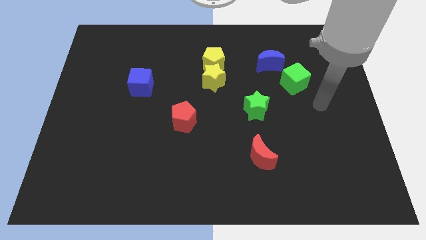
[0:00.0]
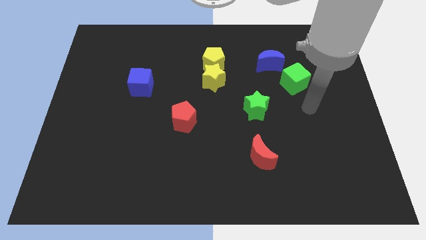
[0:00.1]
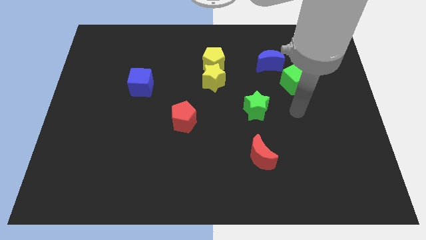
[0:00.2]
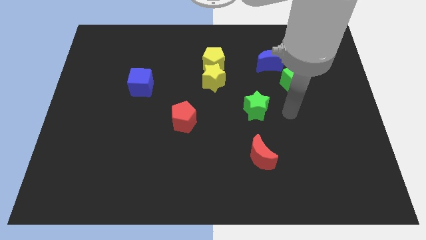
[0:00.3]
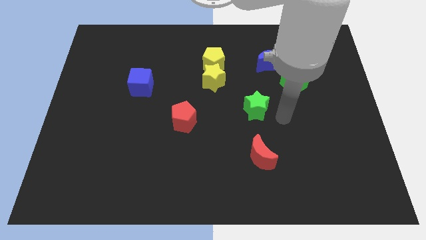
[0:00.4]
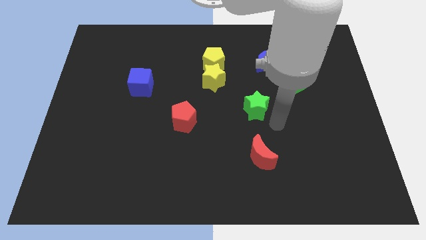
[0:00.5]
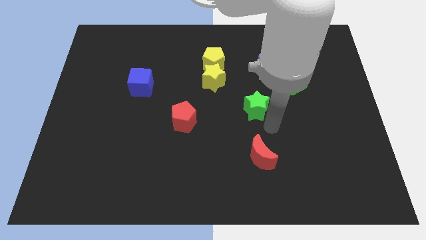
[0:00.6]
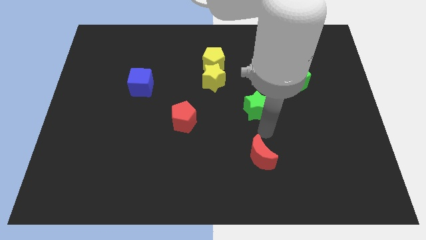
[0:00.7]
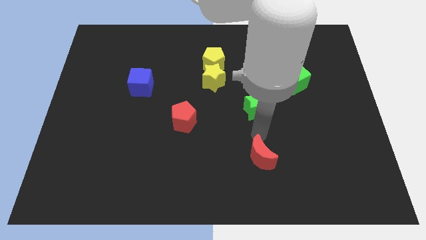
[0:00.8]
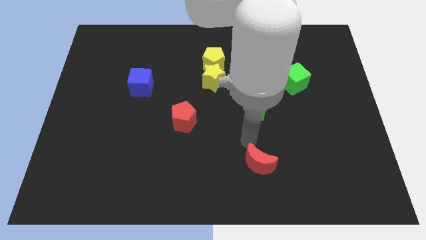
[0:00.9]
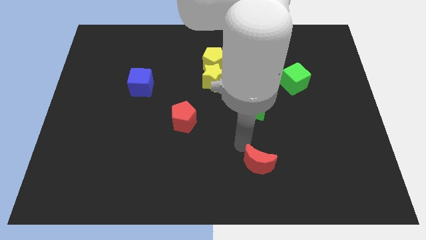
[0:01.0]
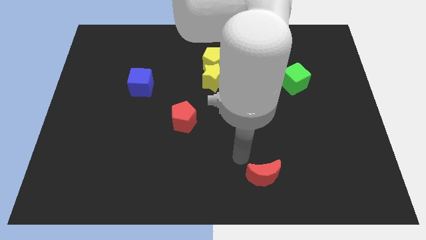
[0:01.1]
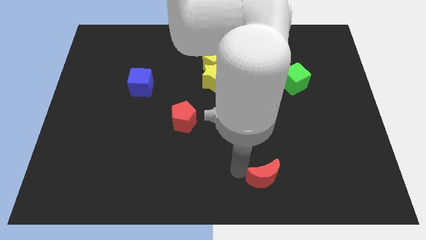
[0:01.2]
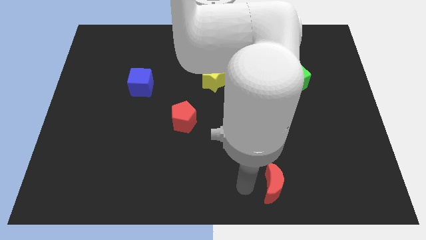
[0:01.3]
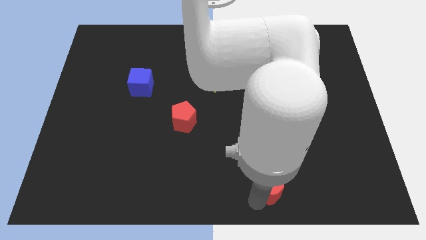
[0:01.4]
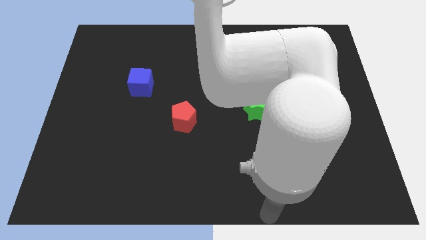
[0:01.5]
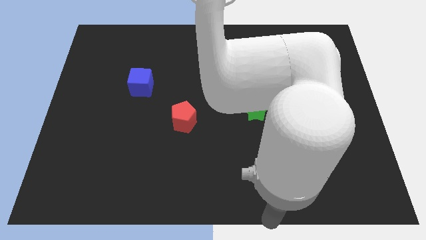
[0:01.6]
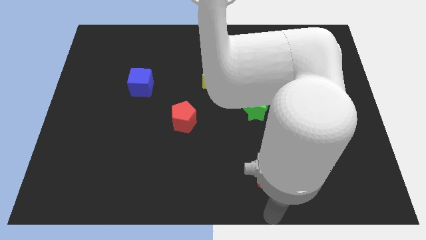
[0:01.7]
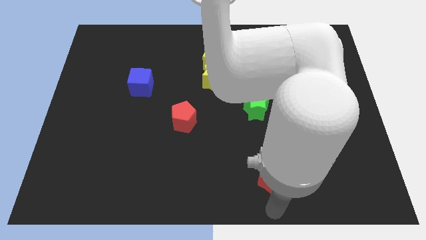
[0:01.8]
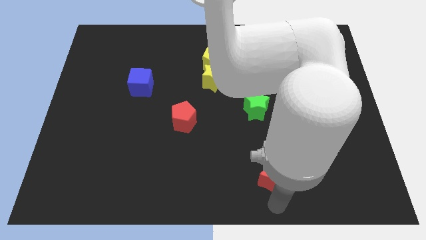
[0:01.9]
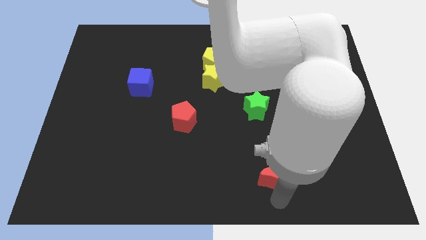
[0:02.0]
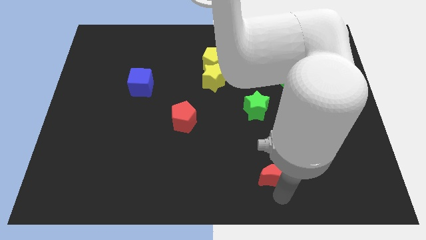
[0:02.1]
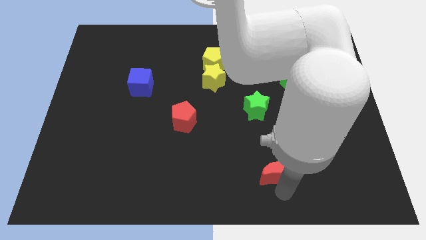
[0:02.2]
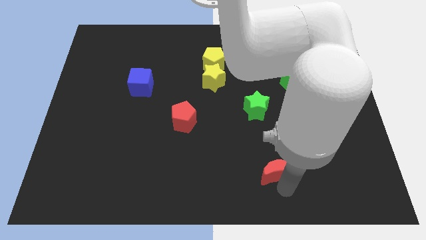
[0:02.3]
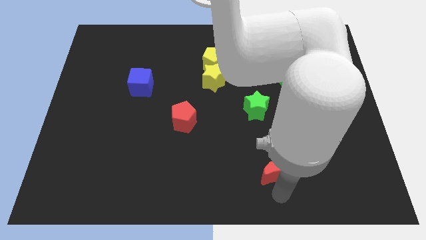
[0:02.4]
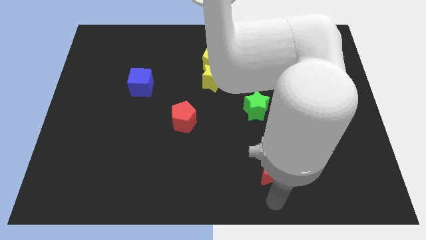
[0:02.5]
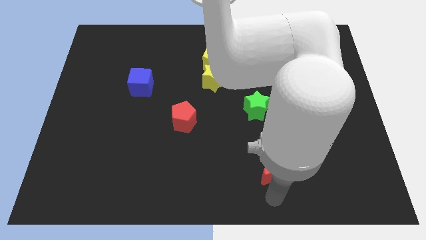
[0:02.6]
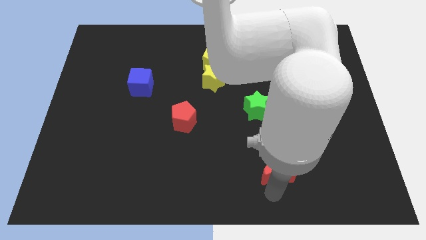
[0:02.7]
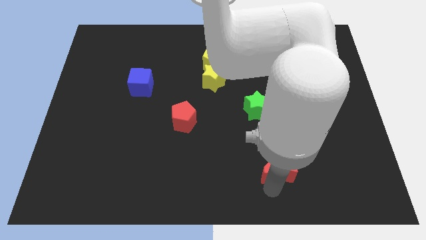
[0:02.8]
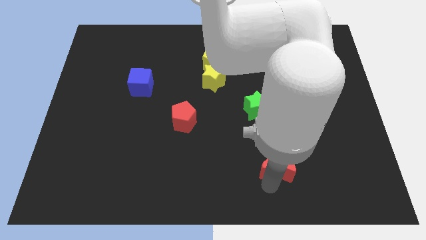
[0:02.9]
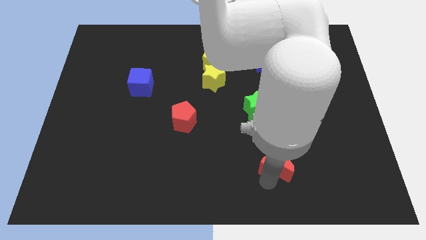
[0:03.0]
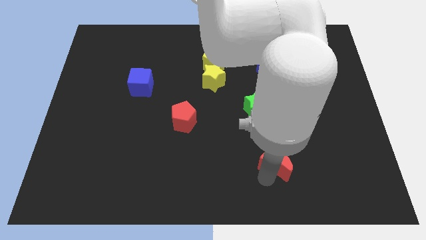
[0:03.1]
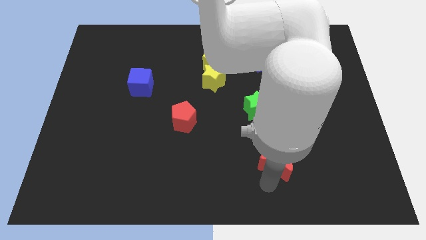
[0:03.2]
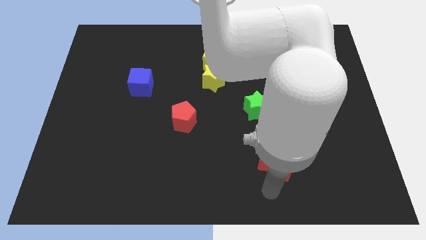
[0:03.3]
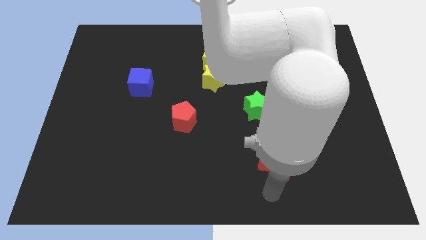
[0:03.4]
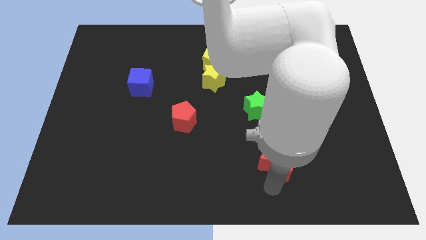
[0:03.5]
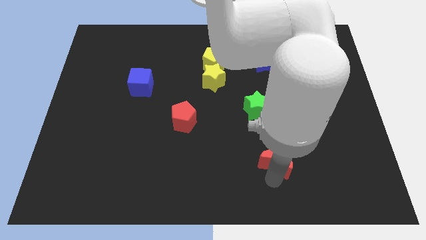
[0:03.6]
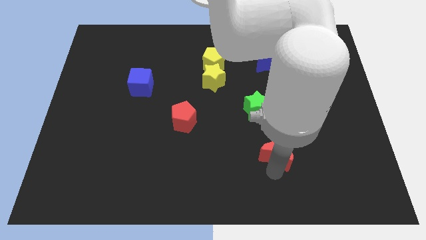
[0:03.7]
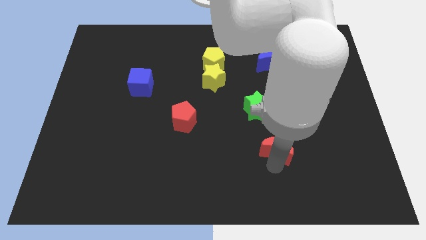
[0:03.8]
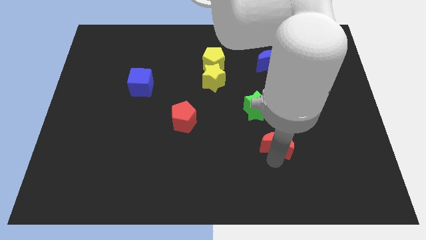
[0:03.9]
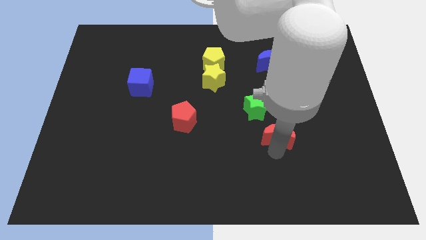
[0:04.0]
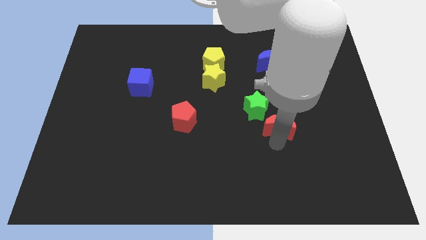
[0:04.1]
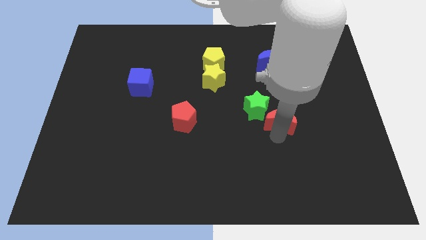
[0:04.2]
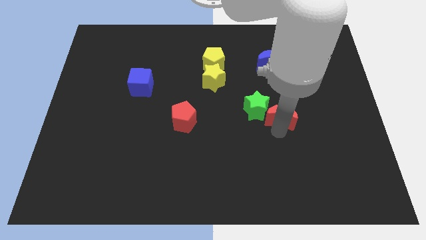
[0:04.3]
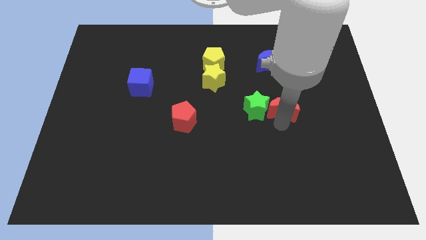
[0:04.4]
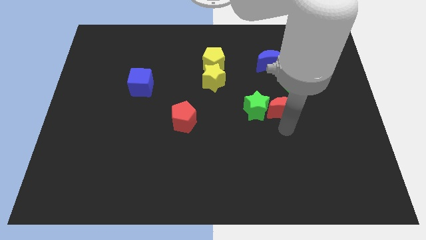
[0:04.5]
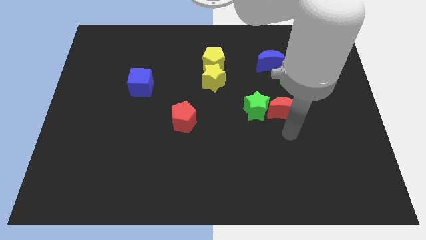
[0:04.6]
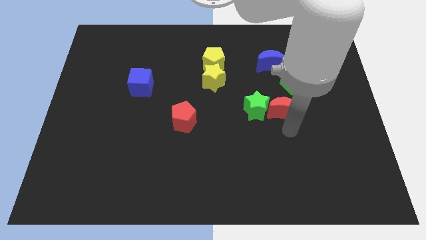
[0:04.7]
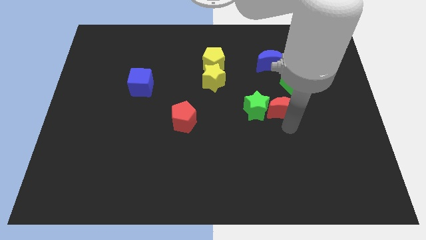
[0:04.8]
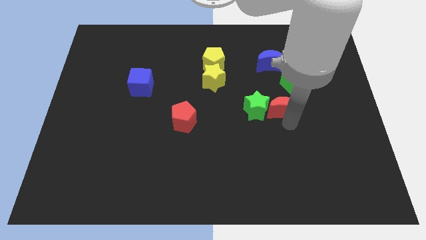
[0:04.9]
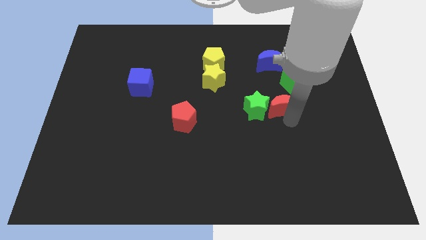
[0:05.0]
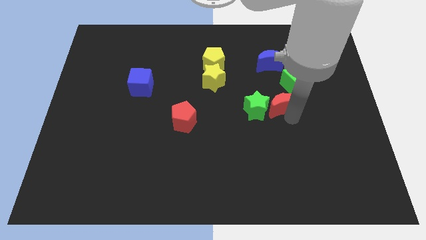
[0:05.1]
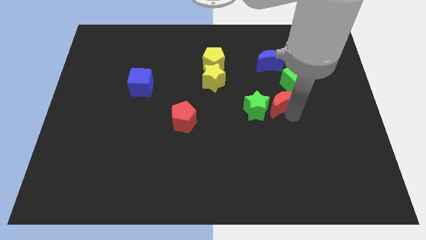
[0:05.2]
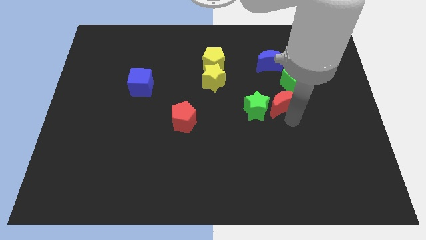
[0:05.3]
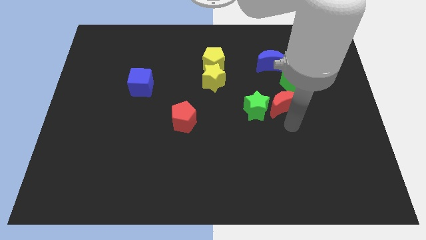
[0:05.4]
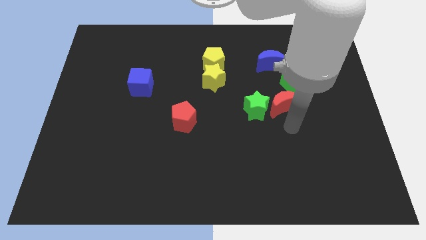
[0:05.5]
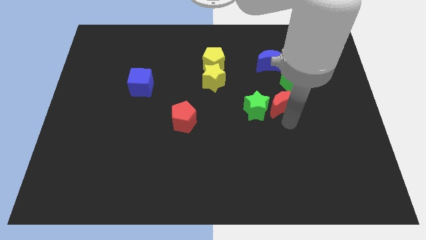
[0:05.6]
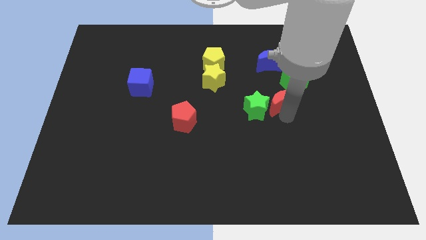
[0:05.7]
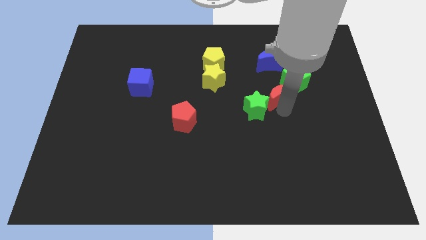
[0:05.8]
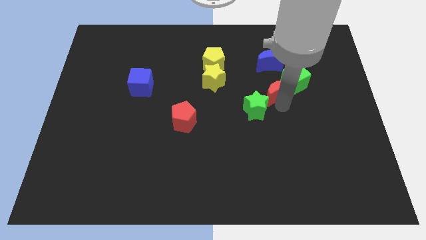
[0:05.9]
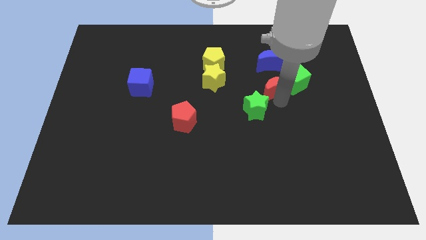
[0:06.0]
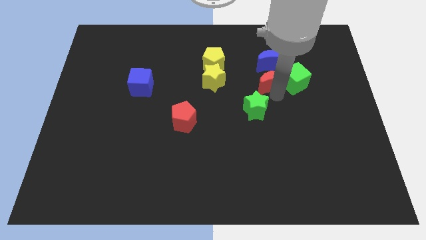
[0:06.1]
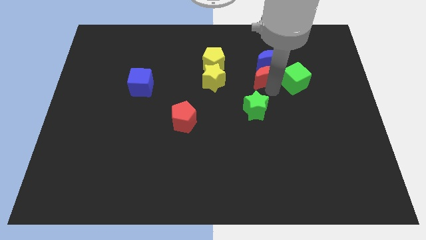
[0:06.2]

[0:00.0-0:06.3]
slide the red moon next to the blue moon
